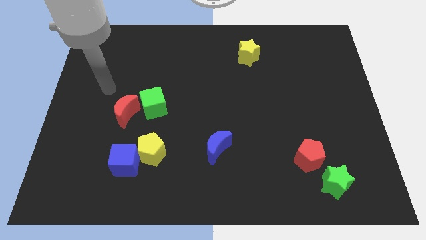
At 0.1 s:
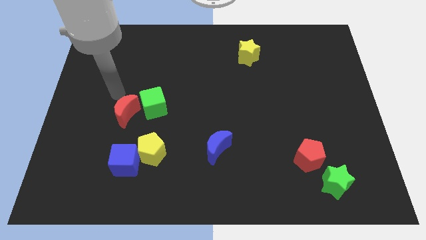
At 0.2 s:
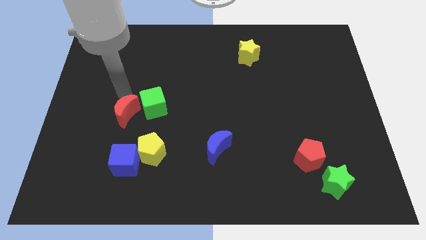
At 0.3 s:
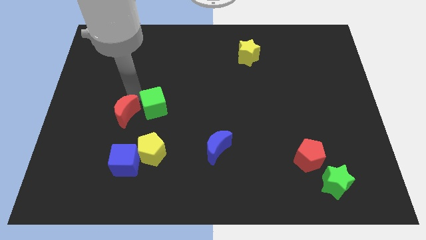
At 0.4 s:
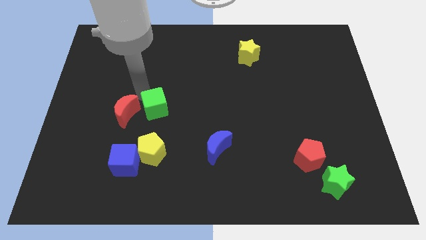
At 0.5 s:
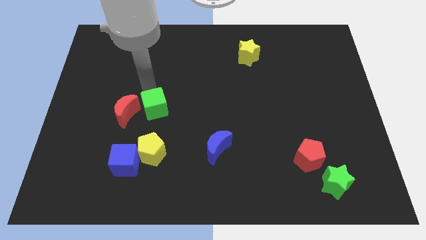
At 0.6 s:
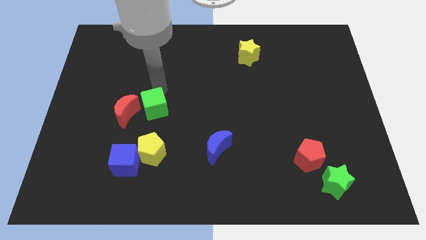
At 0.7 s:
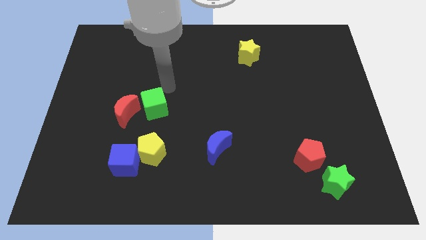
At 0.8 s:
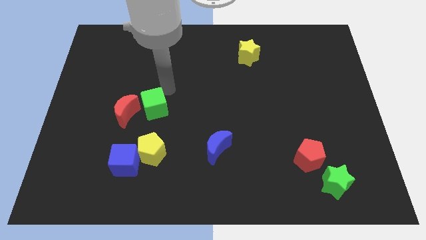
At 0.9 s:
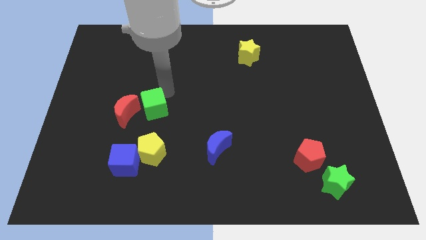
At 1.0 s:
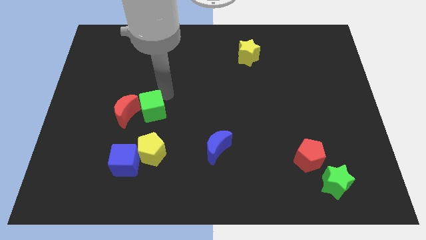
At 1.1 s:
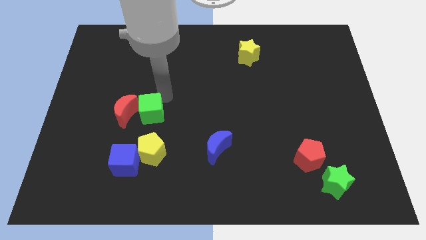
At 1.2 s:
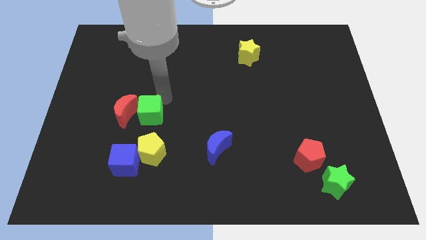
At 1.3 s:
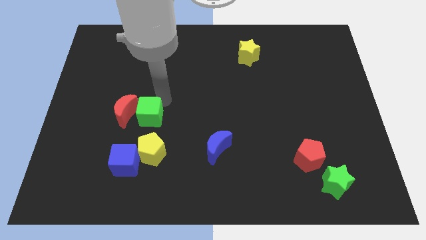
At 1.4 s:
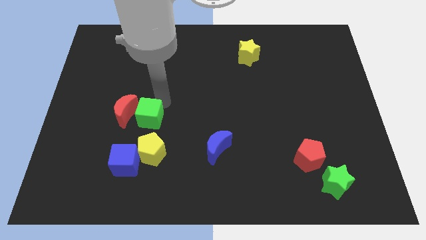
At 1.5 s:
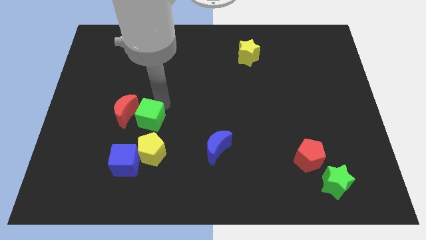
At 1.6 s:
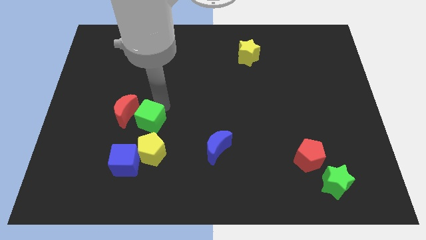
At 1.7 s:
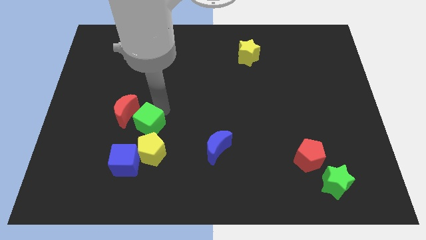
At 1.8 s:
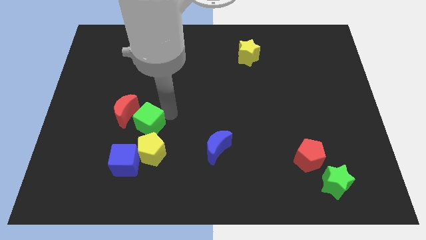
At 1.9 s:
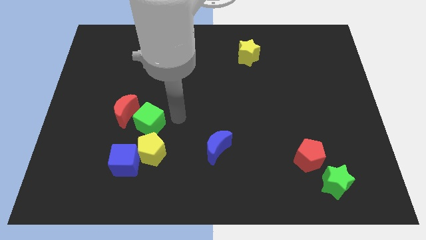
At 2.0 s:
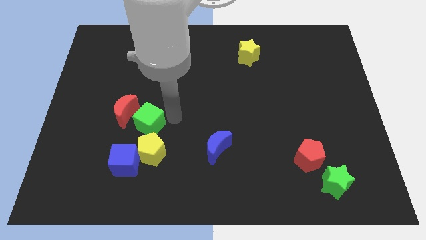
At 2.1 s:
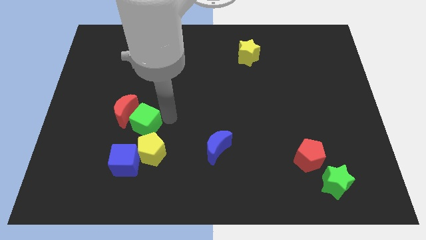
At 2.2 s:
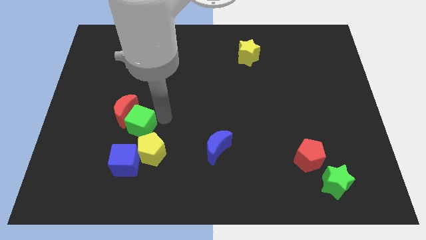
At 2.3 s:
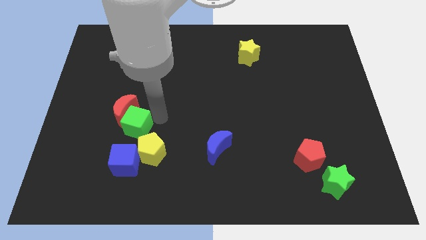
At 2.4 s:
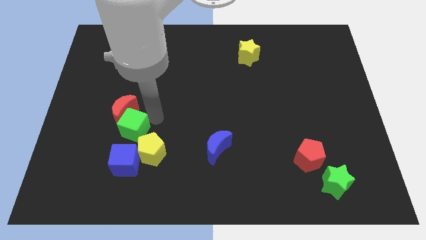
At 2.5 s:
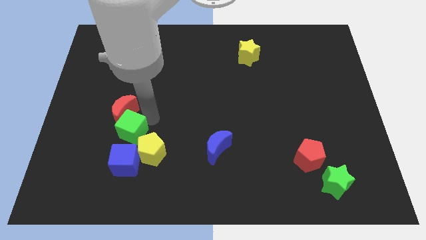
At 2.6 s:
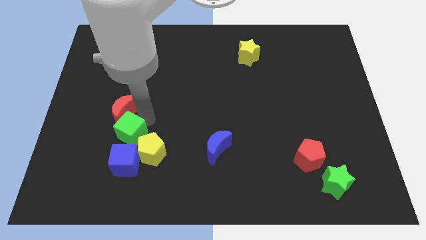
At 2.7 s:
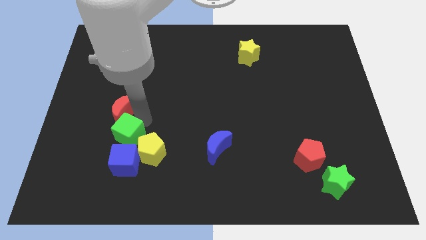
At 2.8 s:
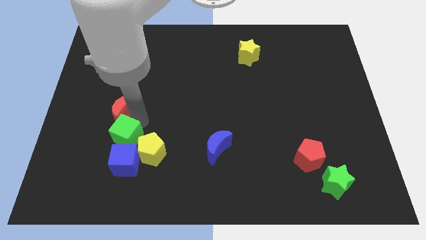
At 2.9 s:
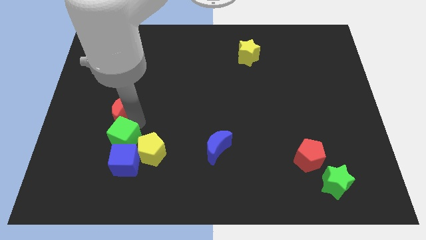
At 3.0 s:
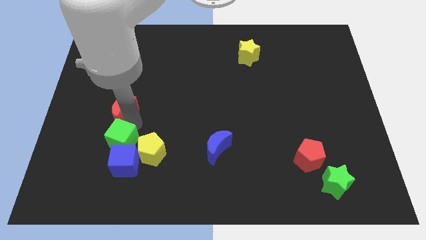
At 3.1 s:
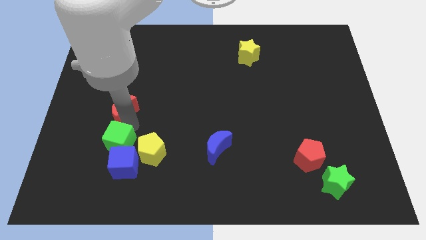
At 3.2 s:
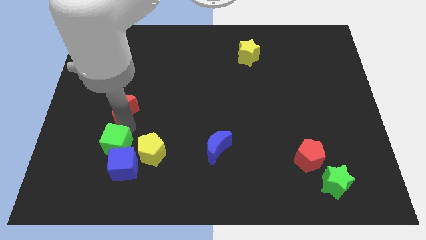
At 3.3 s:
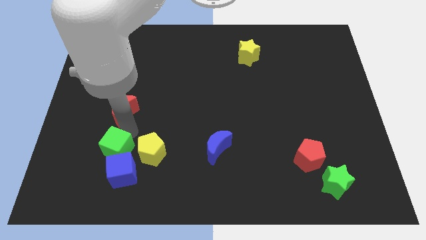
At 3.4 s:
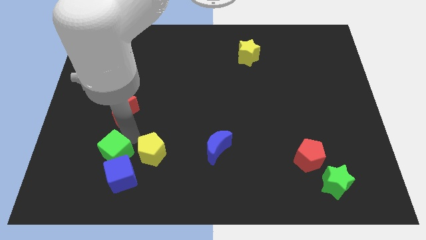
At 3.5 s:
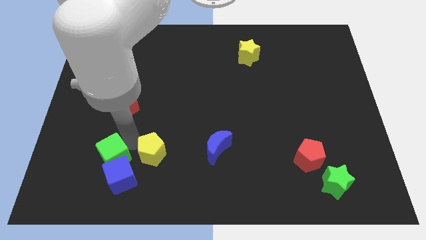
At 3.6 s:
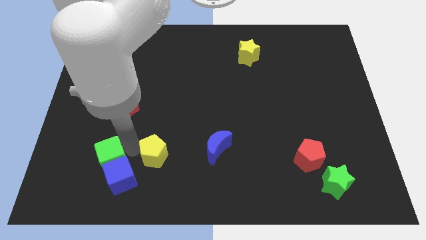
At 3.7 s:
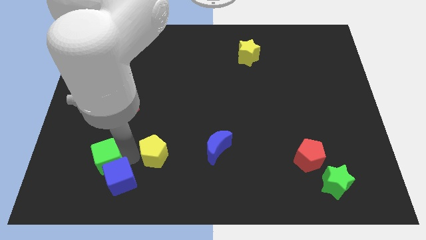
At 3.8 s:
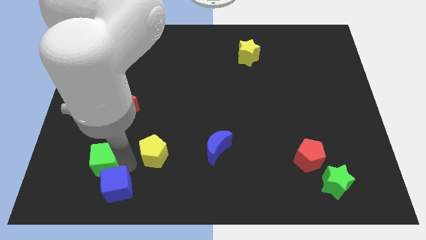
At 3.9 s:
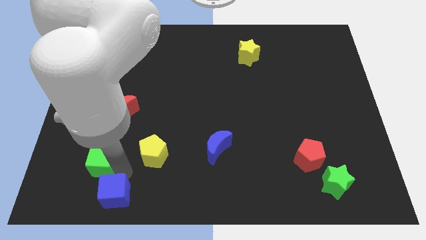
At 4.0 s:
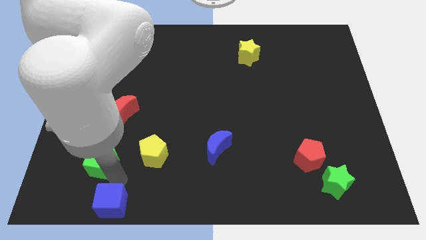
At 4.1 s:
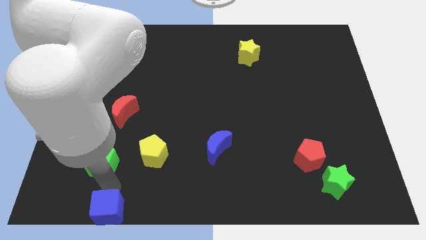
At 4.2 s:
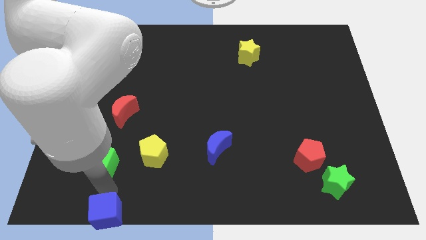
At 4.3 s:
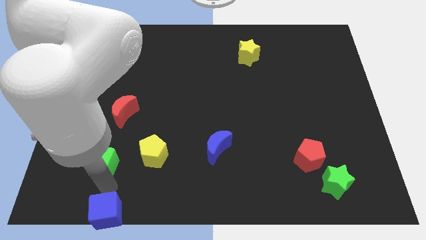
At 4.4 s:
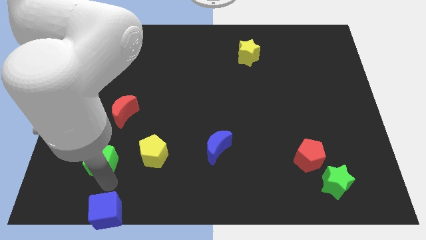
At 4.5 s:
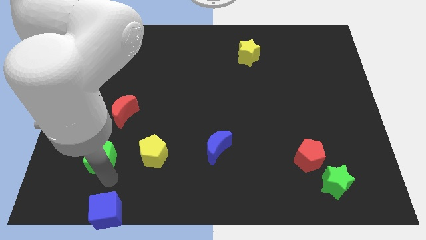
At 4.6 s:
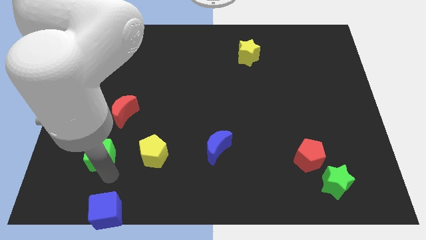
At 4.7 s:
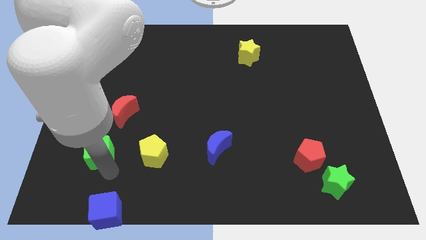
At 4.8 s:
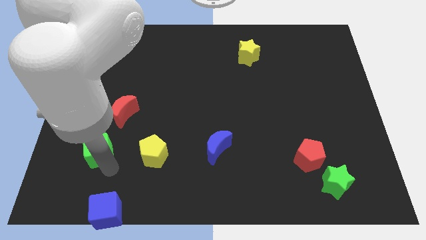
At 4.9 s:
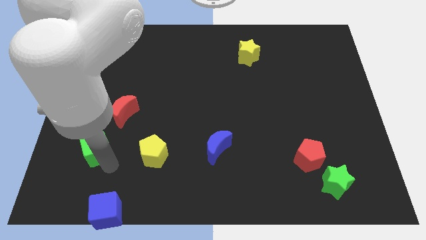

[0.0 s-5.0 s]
slide the green cube to the bottom left of the red moon

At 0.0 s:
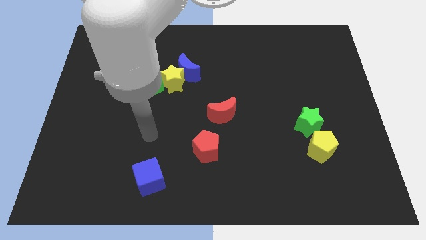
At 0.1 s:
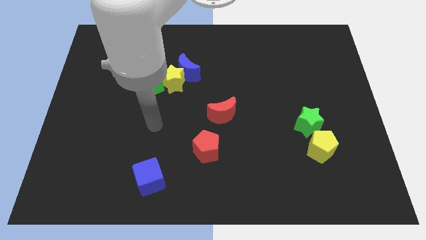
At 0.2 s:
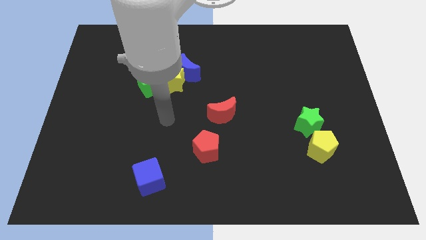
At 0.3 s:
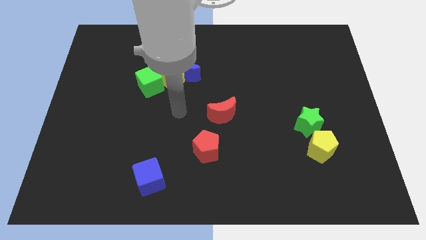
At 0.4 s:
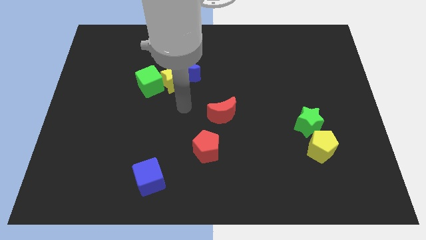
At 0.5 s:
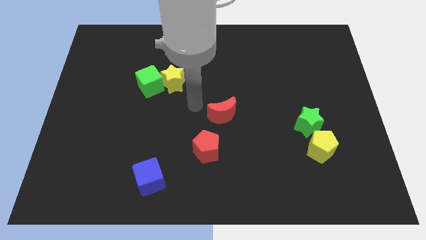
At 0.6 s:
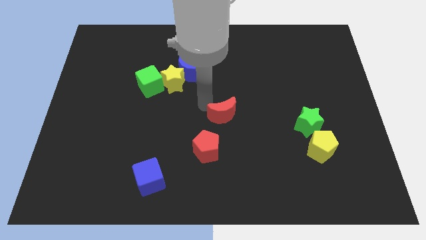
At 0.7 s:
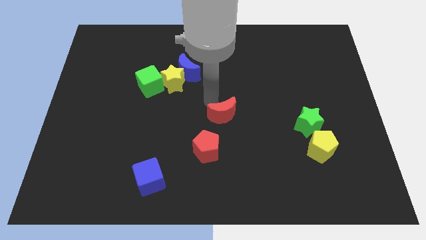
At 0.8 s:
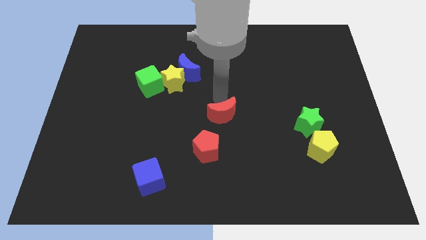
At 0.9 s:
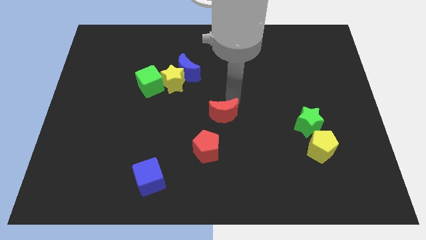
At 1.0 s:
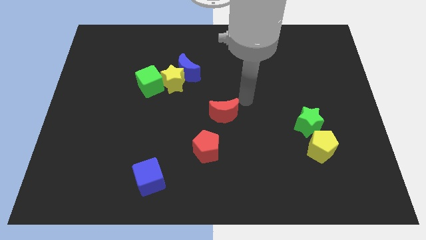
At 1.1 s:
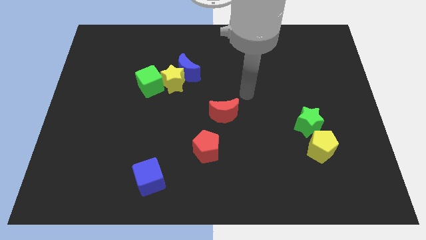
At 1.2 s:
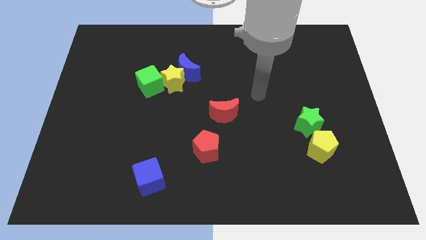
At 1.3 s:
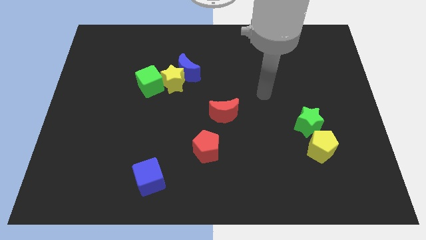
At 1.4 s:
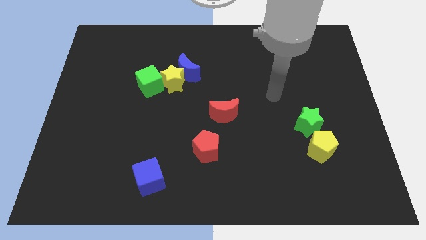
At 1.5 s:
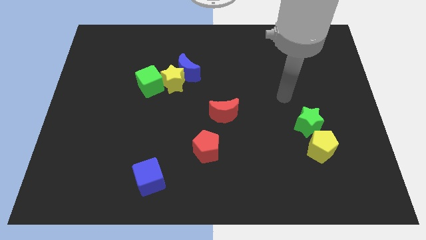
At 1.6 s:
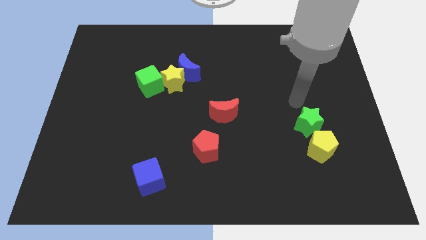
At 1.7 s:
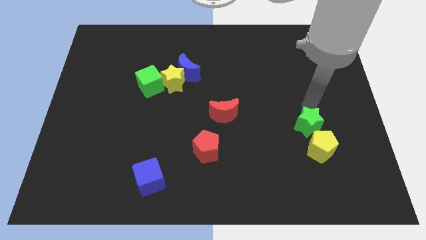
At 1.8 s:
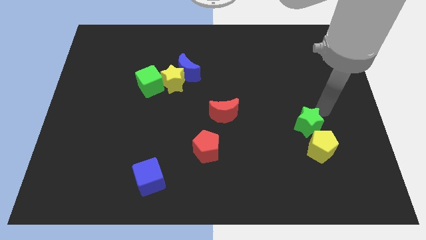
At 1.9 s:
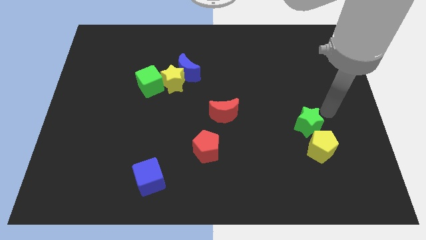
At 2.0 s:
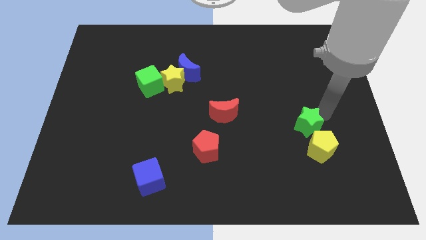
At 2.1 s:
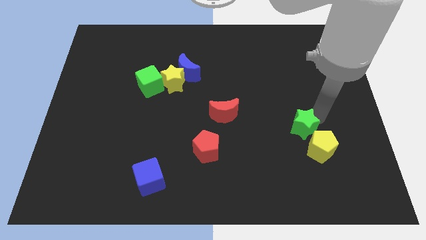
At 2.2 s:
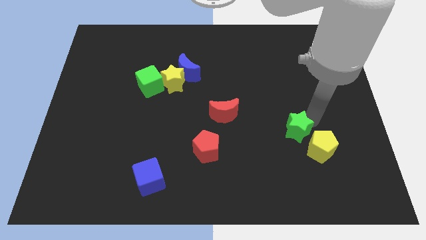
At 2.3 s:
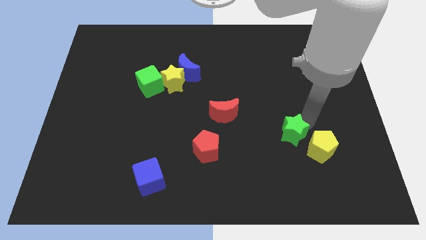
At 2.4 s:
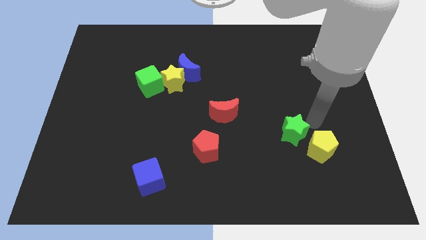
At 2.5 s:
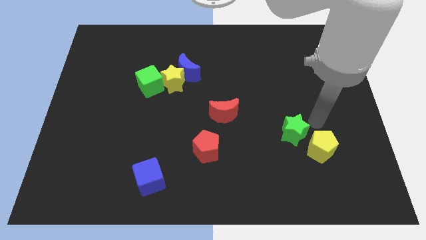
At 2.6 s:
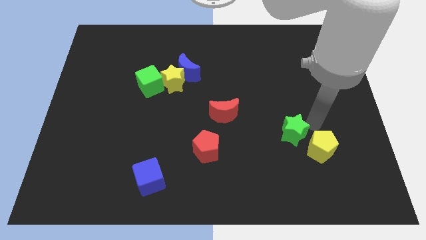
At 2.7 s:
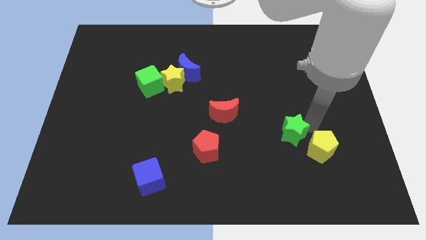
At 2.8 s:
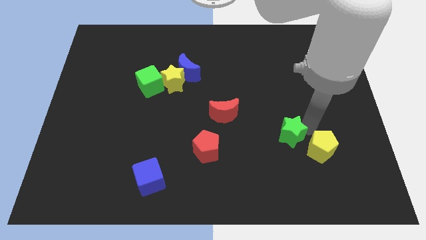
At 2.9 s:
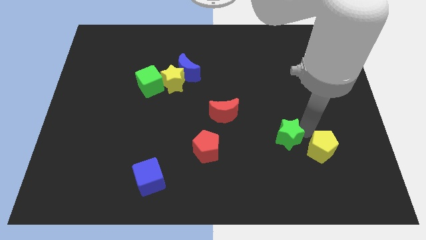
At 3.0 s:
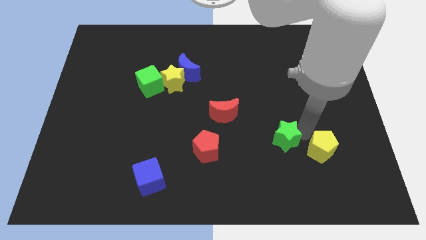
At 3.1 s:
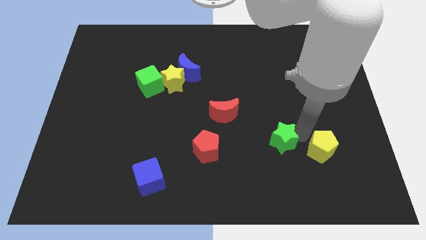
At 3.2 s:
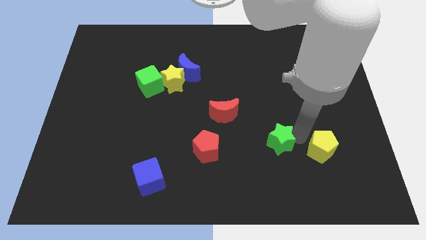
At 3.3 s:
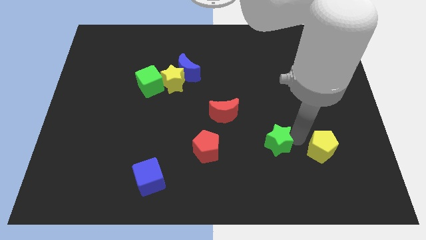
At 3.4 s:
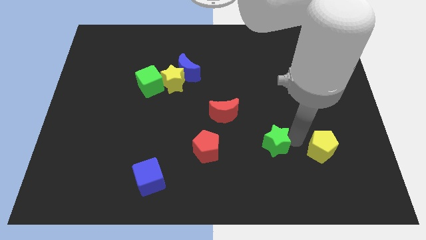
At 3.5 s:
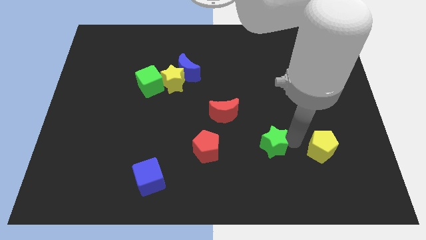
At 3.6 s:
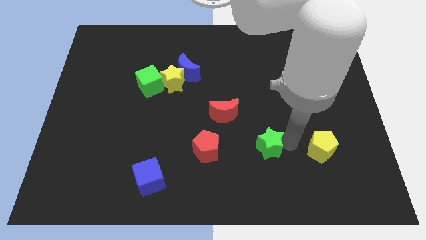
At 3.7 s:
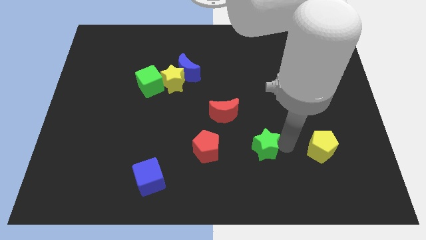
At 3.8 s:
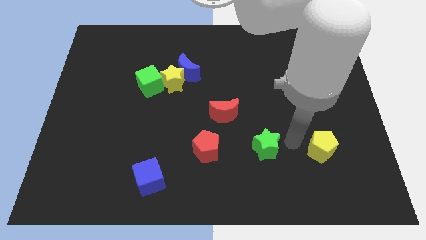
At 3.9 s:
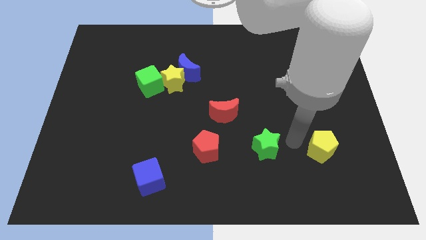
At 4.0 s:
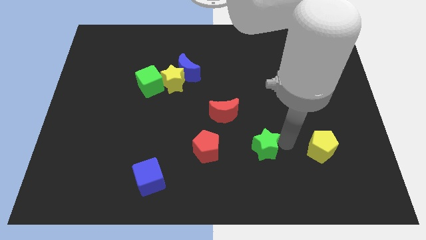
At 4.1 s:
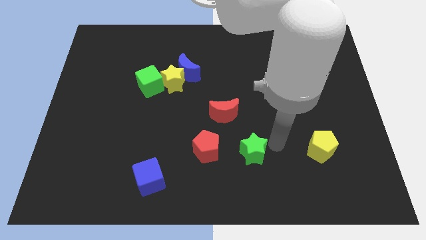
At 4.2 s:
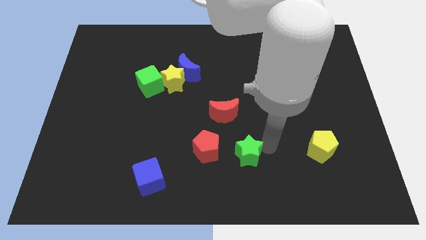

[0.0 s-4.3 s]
slide the green star to the bottom of the red moon
